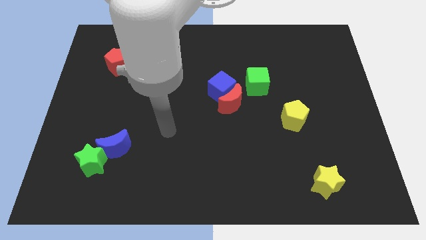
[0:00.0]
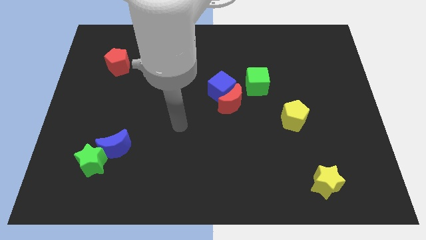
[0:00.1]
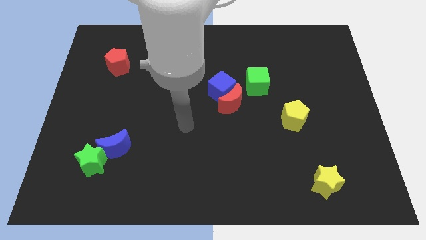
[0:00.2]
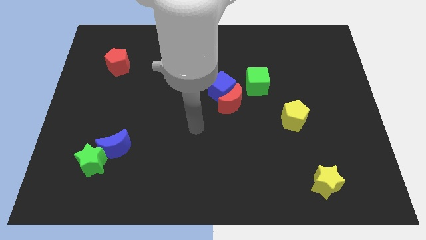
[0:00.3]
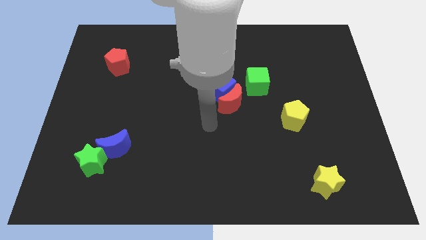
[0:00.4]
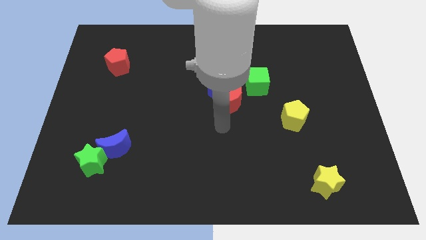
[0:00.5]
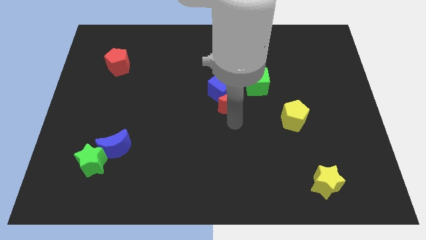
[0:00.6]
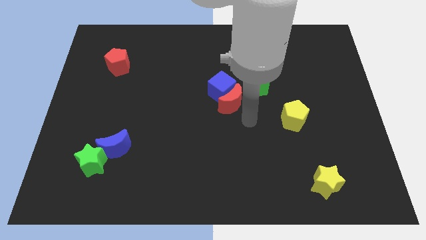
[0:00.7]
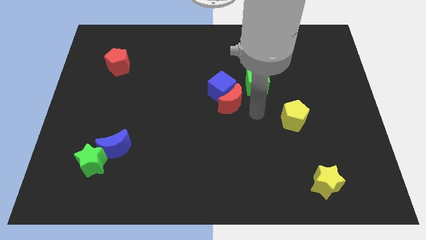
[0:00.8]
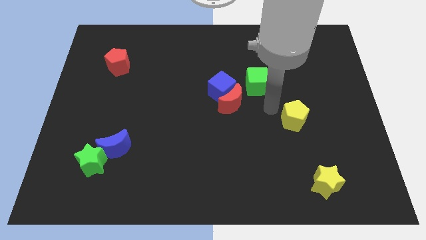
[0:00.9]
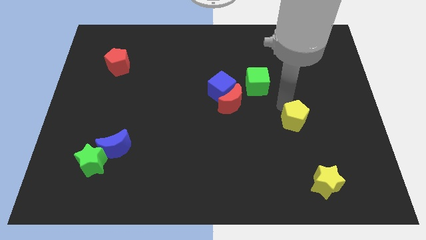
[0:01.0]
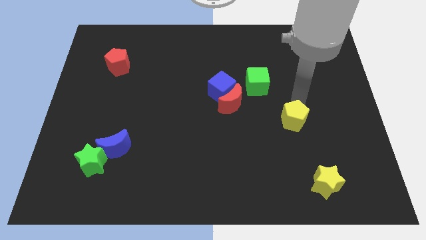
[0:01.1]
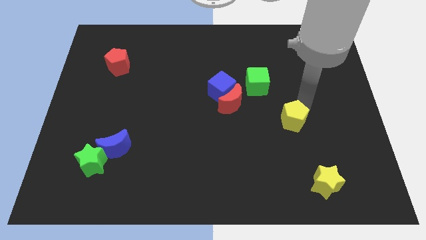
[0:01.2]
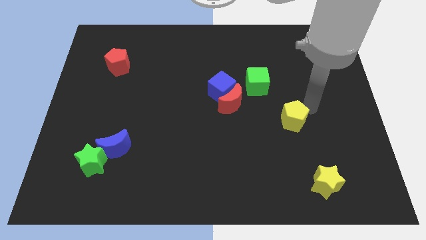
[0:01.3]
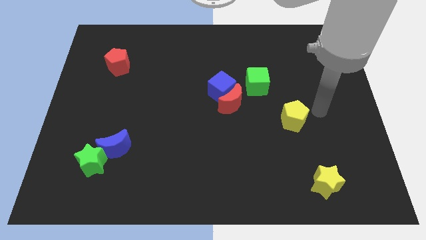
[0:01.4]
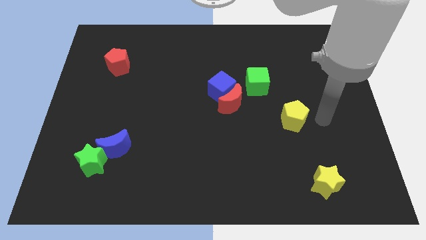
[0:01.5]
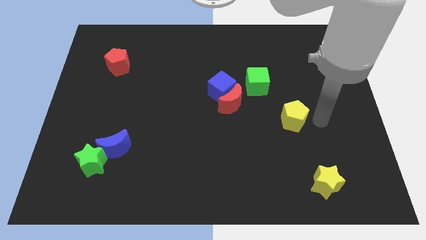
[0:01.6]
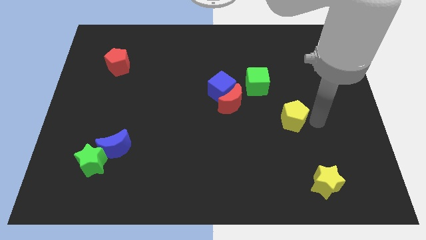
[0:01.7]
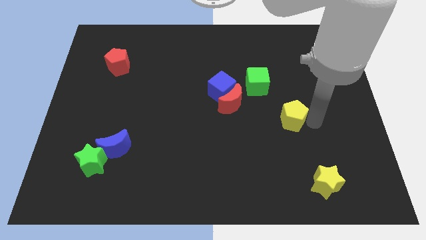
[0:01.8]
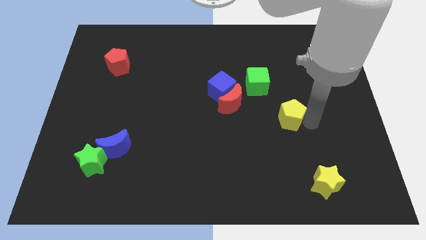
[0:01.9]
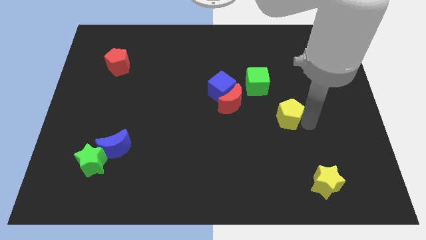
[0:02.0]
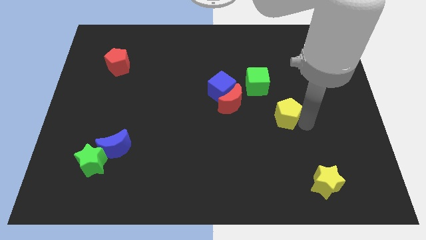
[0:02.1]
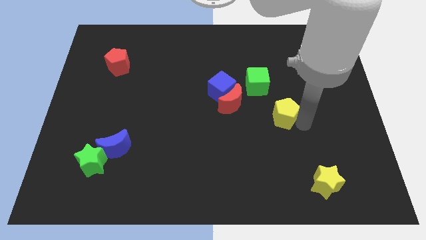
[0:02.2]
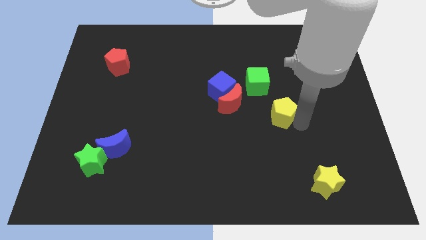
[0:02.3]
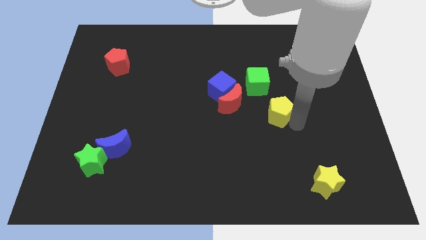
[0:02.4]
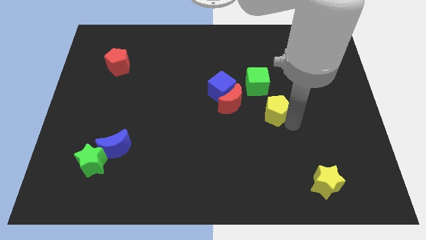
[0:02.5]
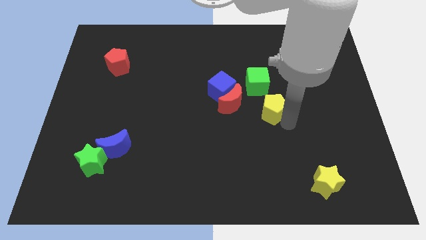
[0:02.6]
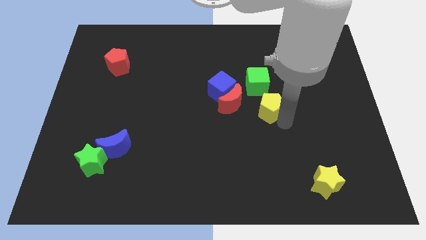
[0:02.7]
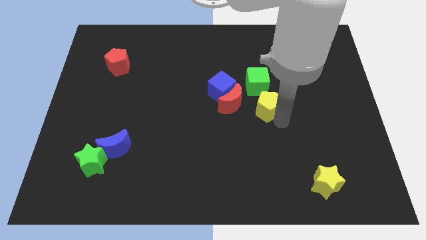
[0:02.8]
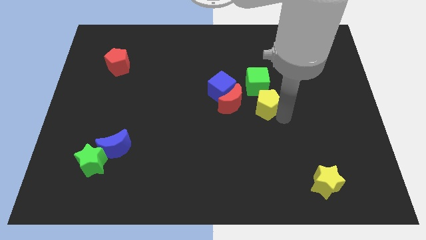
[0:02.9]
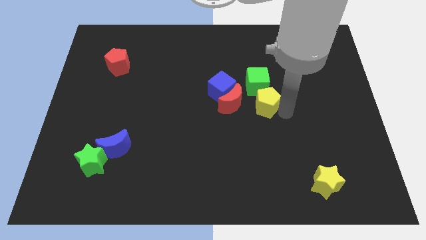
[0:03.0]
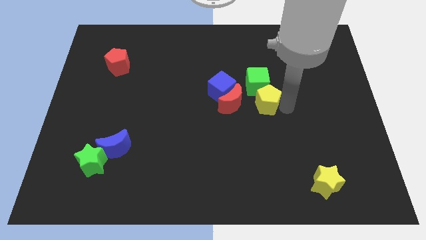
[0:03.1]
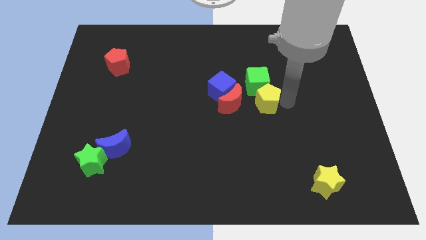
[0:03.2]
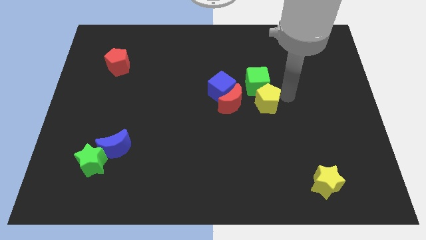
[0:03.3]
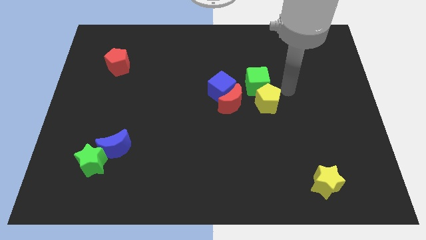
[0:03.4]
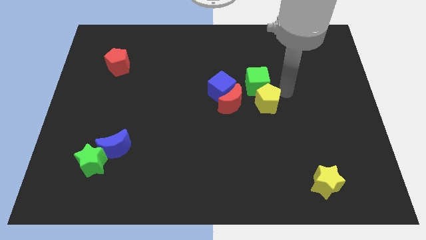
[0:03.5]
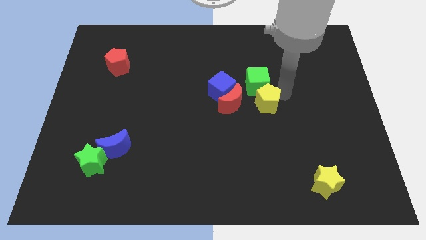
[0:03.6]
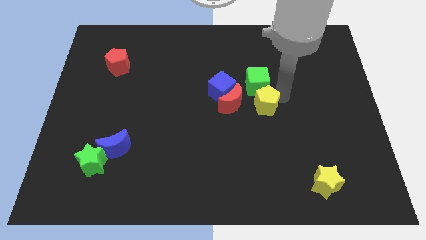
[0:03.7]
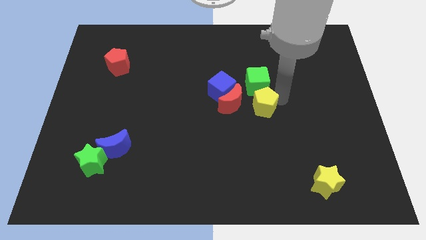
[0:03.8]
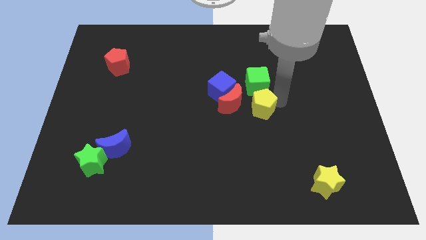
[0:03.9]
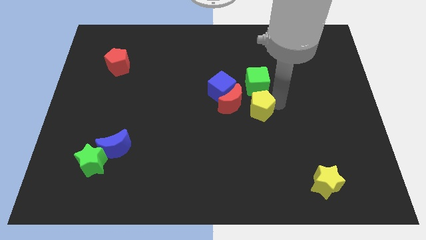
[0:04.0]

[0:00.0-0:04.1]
slightly push the yellow pentagon left

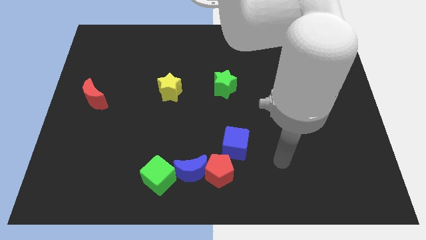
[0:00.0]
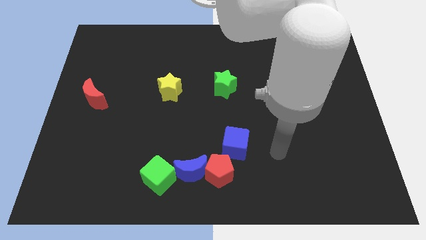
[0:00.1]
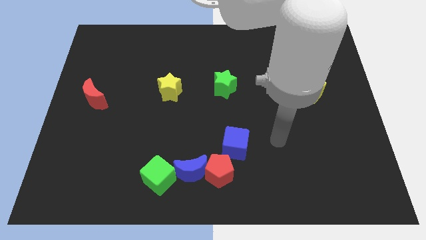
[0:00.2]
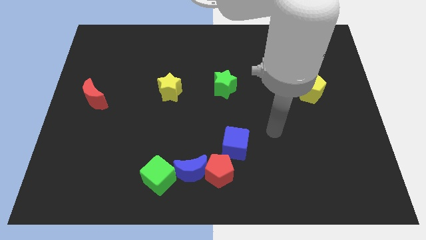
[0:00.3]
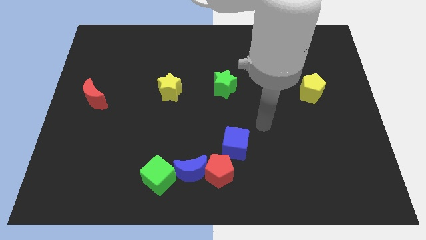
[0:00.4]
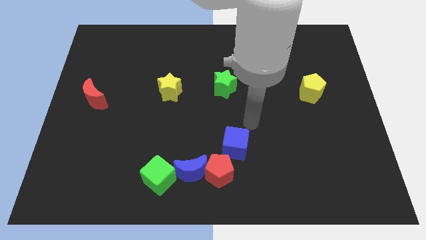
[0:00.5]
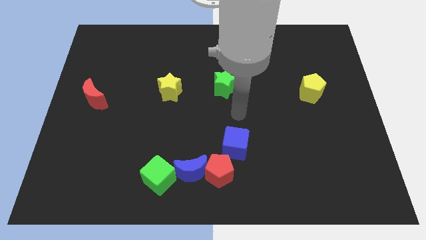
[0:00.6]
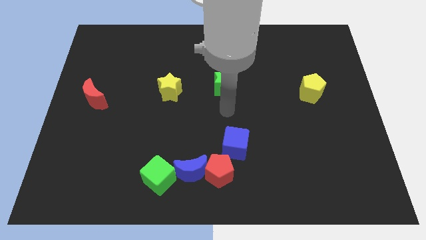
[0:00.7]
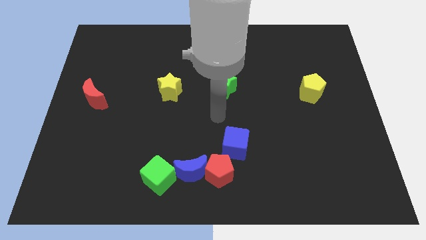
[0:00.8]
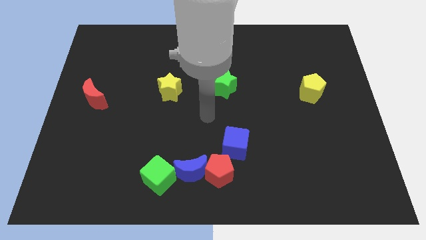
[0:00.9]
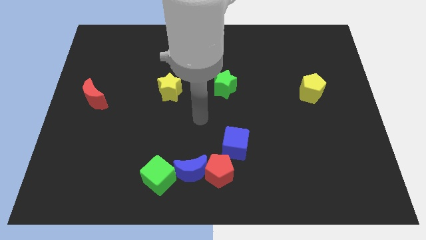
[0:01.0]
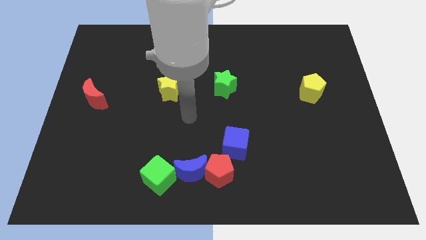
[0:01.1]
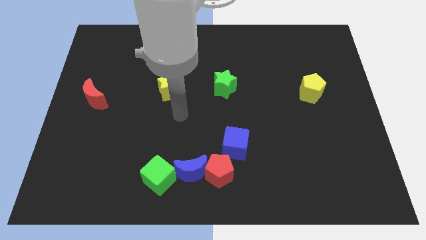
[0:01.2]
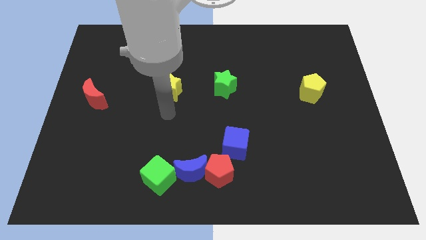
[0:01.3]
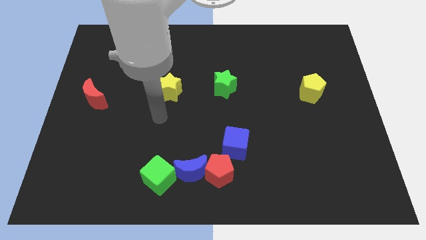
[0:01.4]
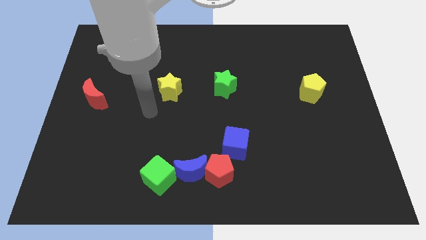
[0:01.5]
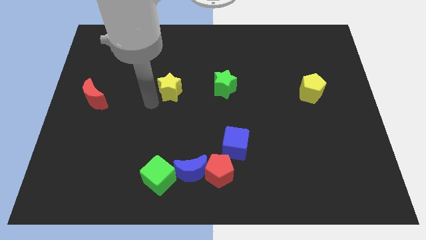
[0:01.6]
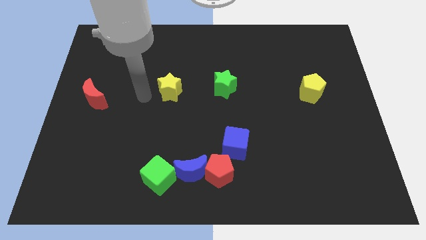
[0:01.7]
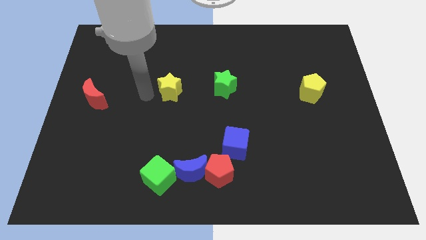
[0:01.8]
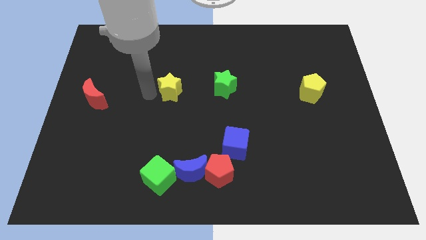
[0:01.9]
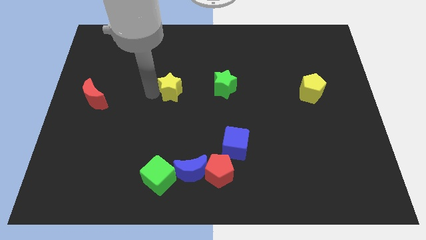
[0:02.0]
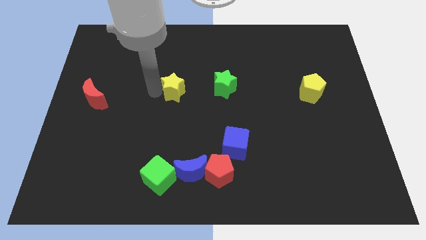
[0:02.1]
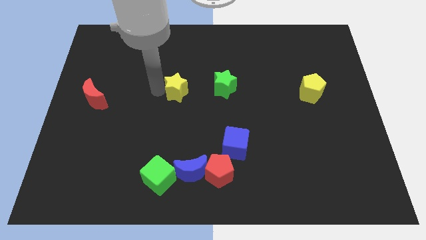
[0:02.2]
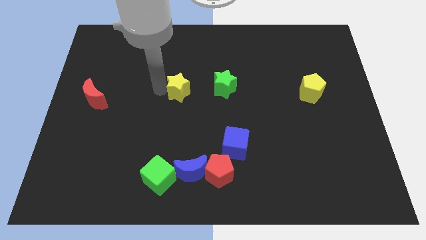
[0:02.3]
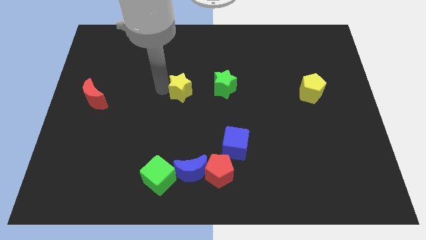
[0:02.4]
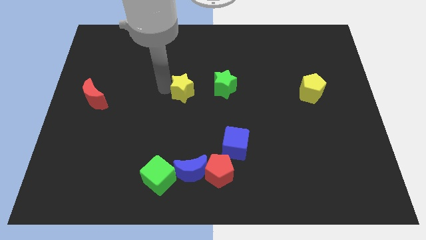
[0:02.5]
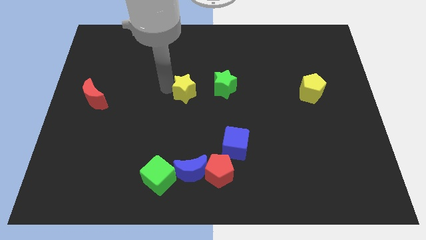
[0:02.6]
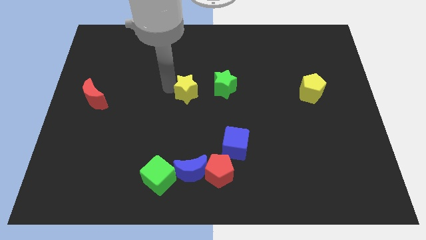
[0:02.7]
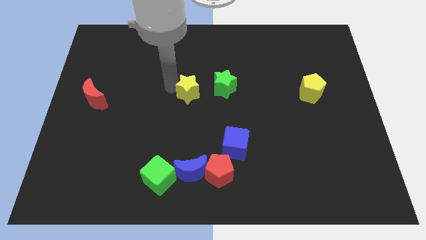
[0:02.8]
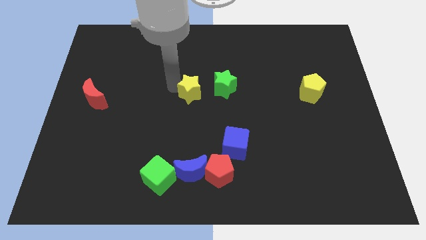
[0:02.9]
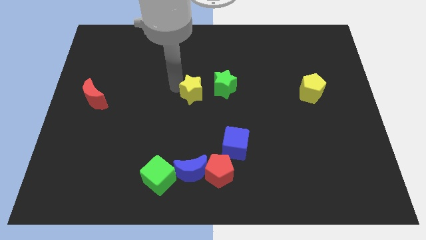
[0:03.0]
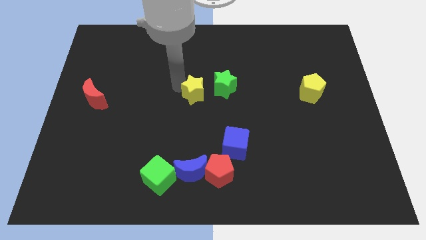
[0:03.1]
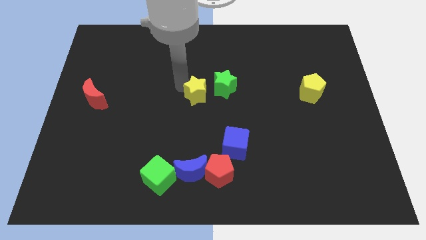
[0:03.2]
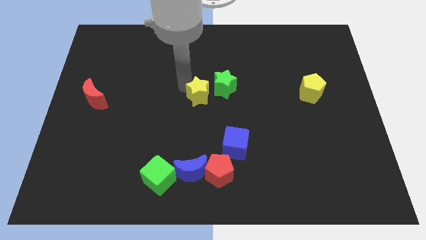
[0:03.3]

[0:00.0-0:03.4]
slide the yellow star a little bit to the right

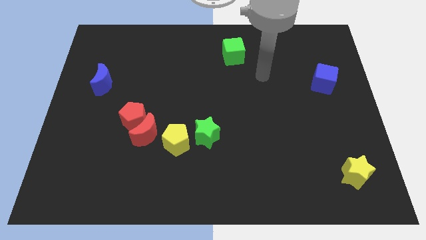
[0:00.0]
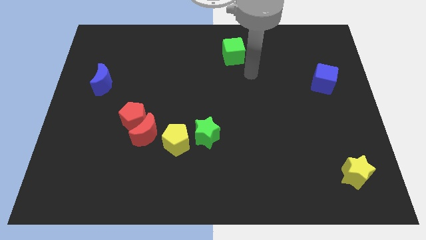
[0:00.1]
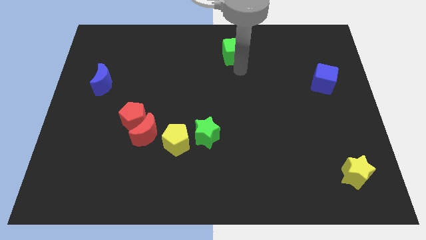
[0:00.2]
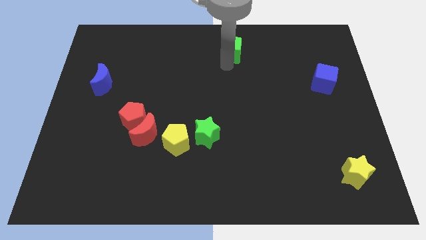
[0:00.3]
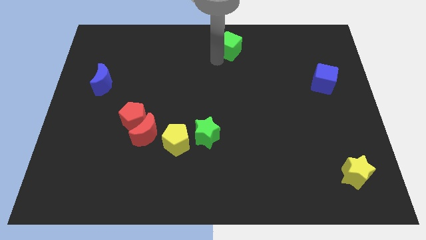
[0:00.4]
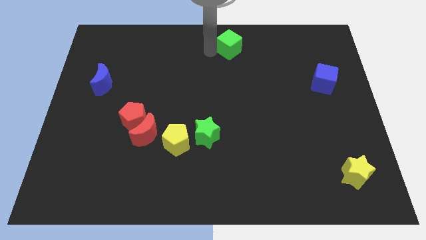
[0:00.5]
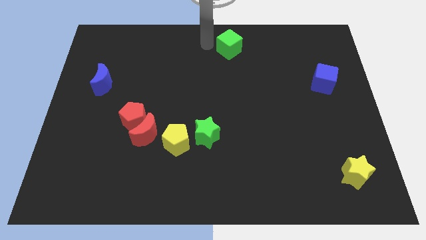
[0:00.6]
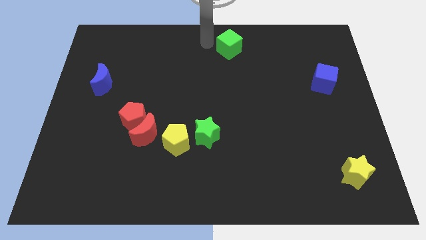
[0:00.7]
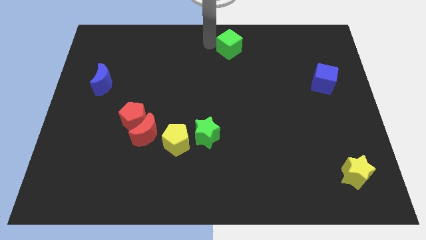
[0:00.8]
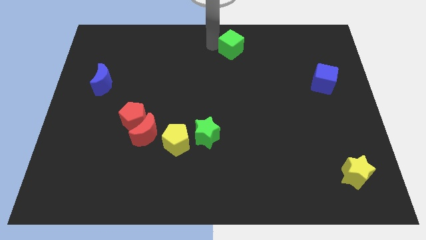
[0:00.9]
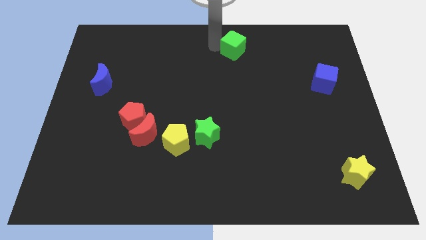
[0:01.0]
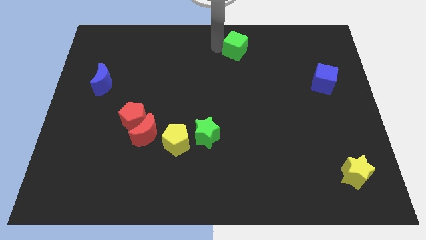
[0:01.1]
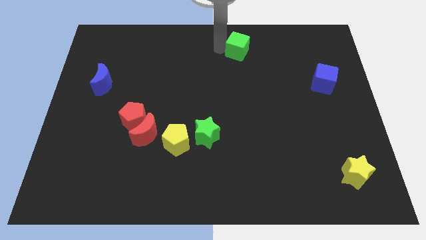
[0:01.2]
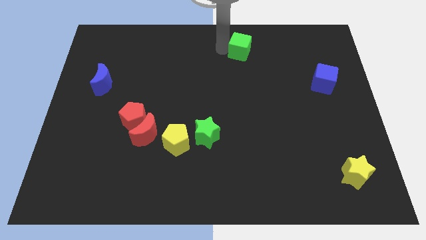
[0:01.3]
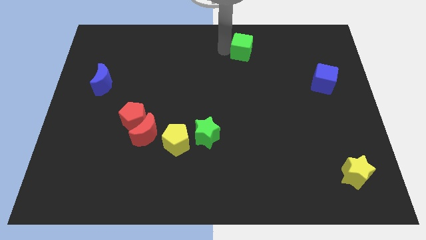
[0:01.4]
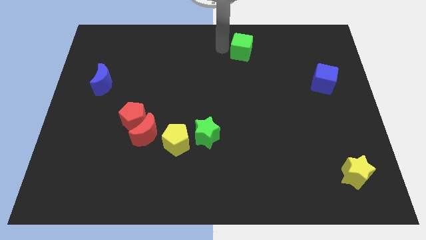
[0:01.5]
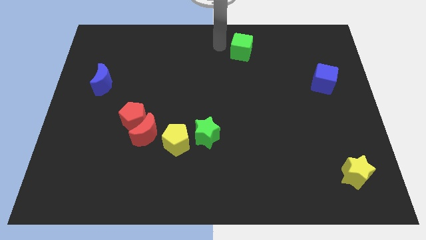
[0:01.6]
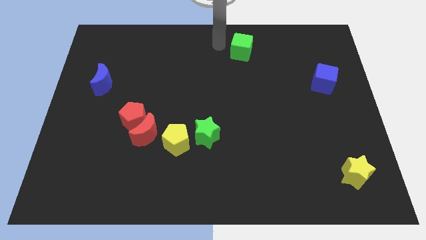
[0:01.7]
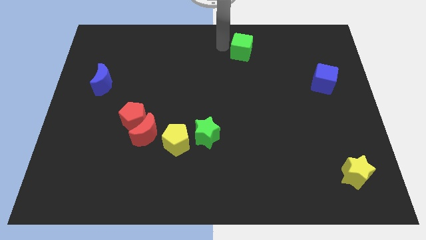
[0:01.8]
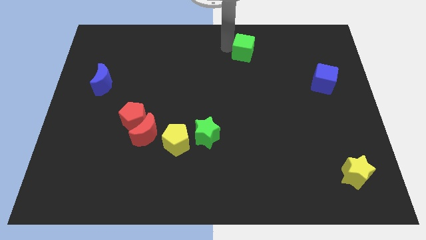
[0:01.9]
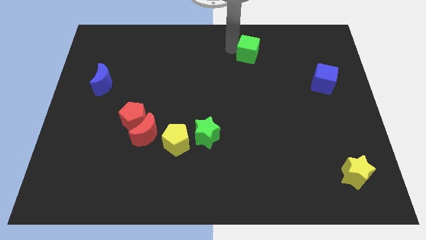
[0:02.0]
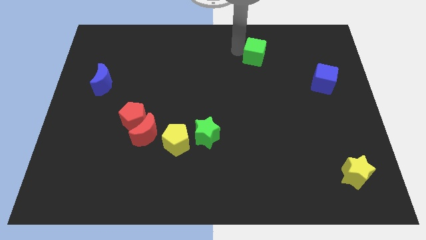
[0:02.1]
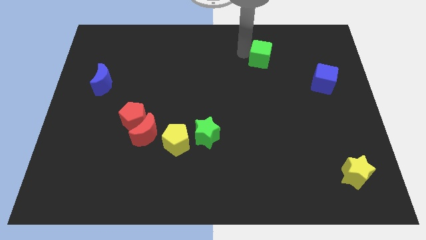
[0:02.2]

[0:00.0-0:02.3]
move the green cube to the right somewhat
